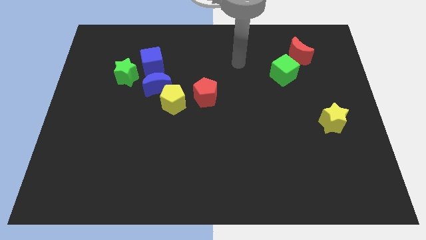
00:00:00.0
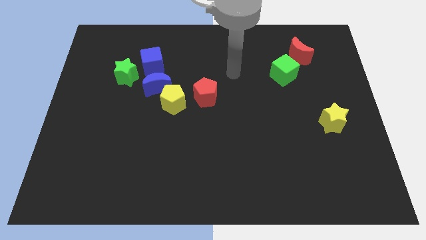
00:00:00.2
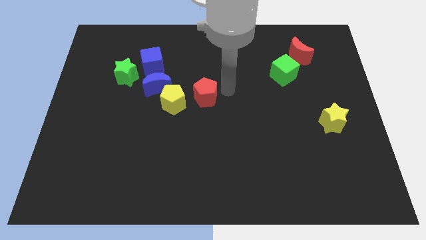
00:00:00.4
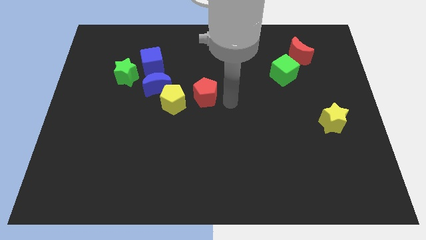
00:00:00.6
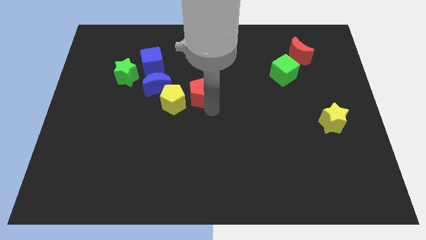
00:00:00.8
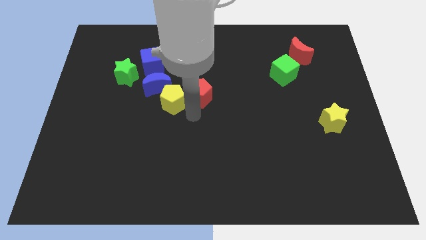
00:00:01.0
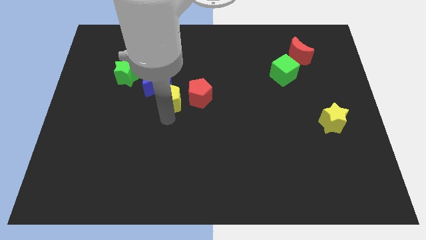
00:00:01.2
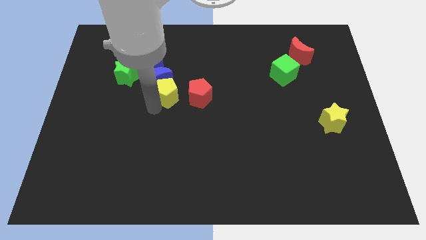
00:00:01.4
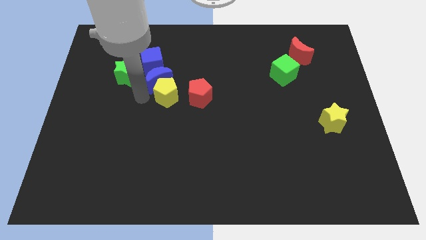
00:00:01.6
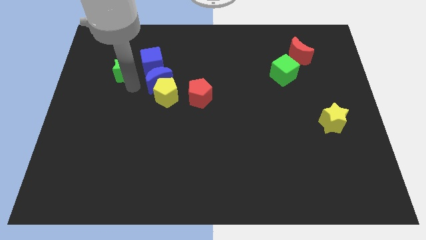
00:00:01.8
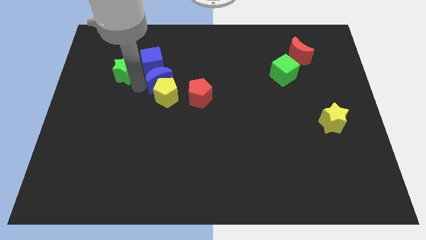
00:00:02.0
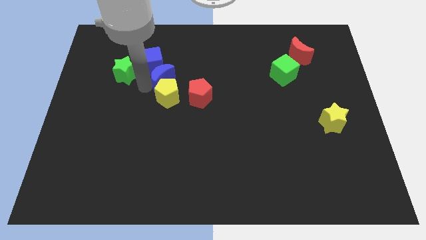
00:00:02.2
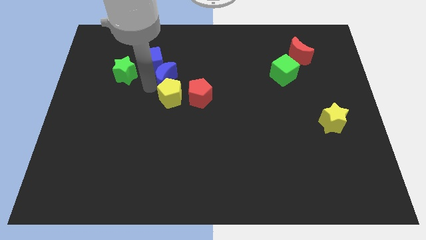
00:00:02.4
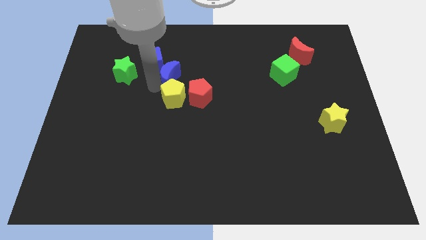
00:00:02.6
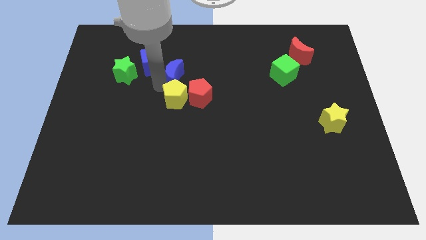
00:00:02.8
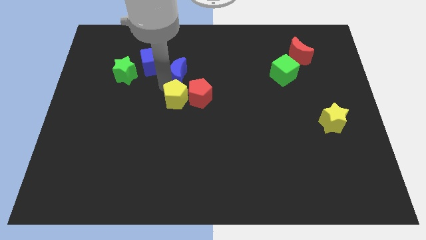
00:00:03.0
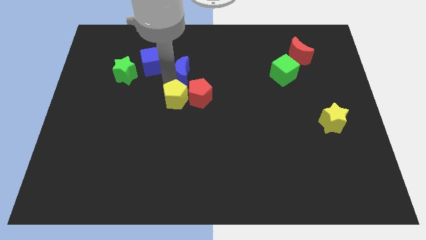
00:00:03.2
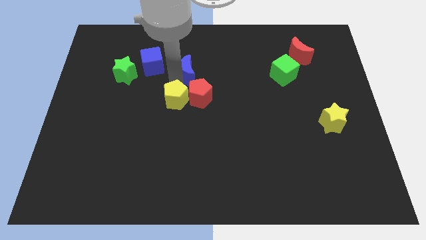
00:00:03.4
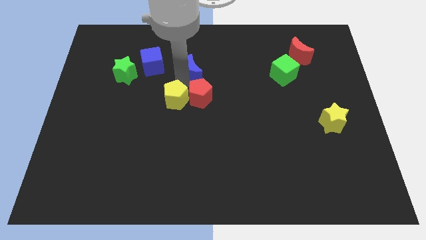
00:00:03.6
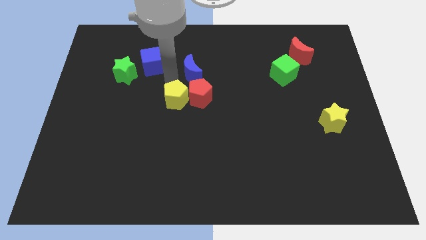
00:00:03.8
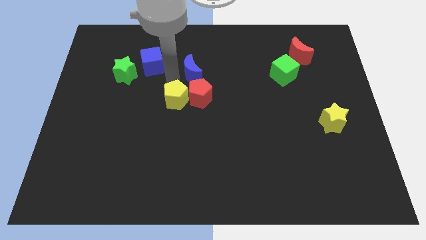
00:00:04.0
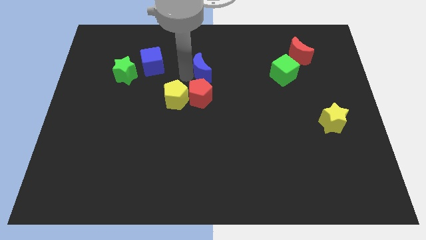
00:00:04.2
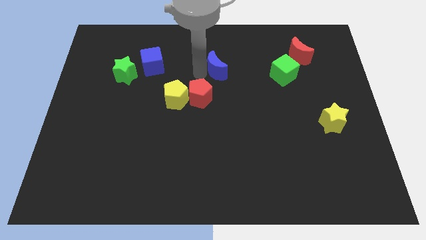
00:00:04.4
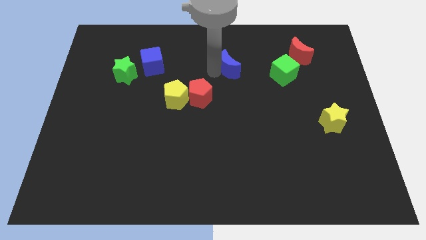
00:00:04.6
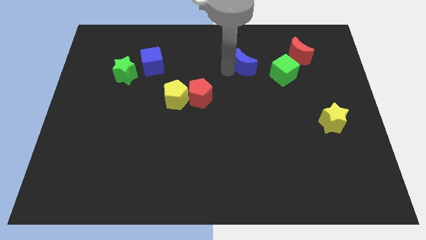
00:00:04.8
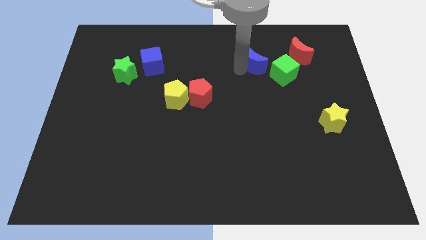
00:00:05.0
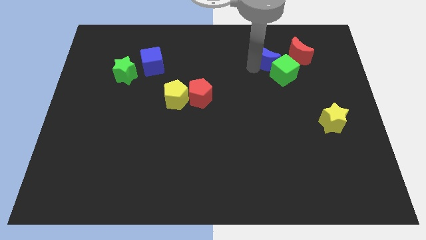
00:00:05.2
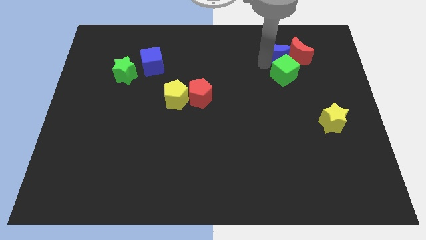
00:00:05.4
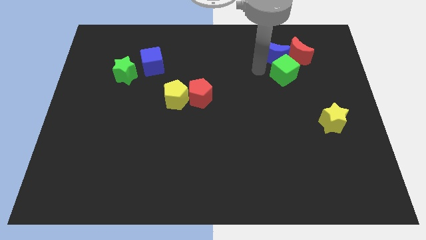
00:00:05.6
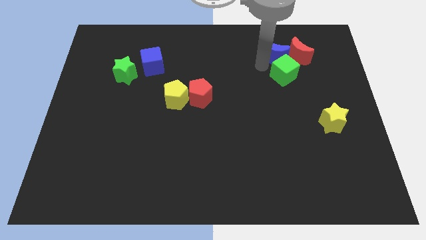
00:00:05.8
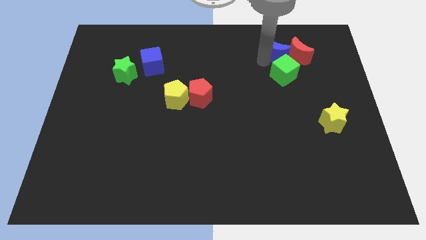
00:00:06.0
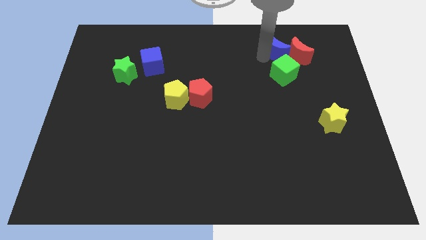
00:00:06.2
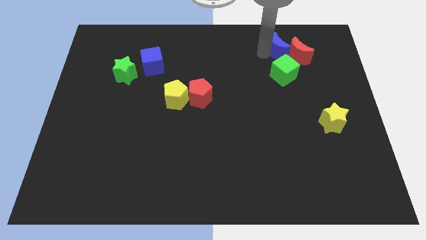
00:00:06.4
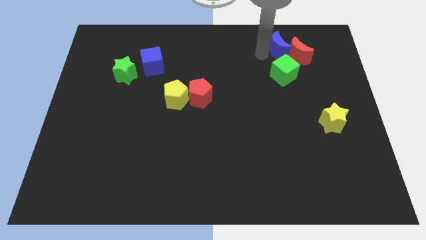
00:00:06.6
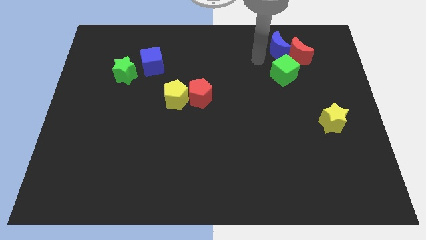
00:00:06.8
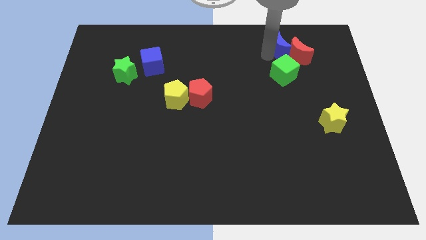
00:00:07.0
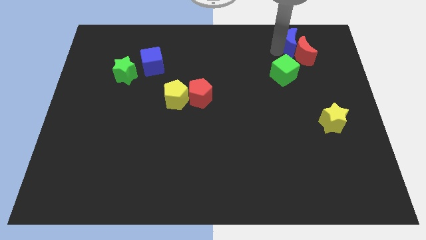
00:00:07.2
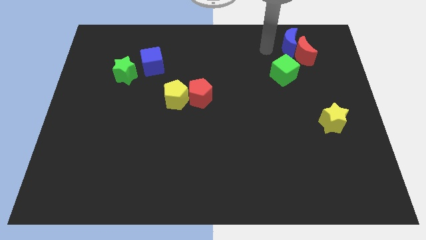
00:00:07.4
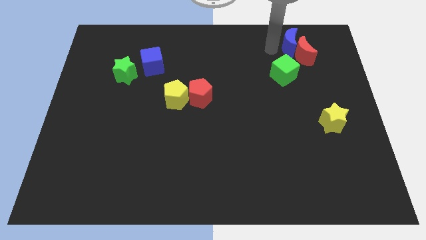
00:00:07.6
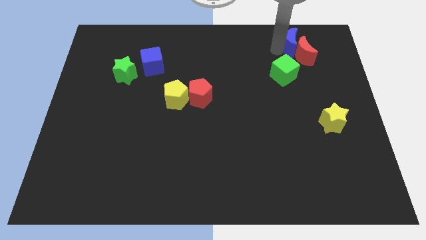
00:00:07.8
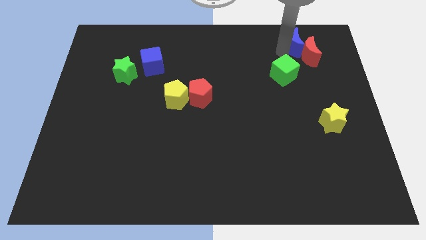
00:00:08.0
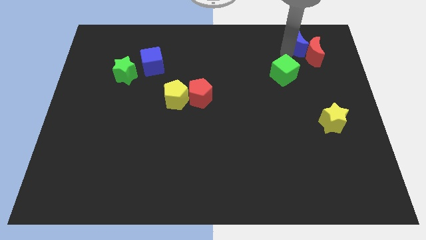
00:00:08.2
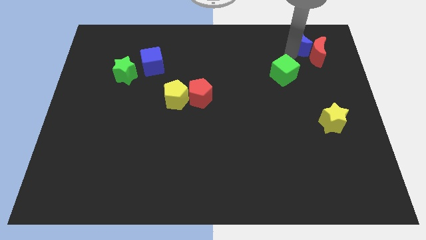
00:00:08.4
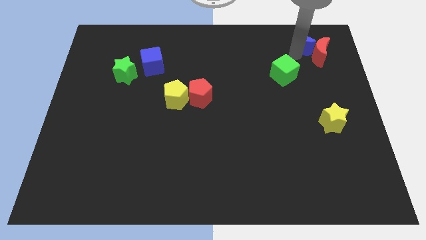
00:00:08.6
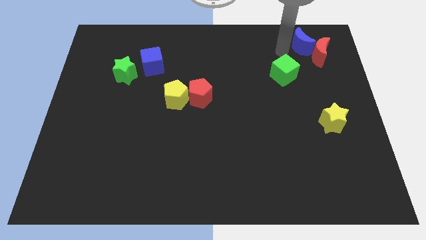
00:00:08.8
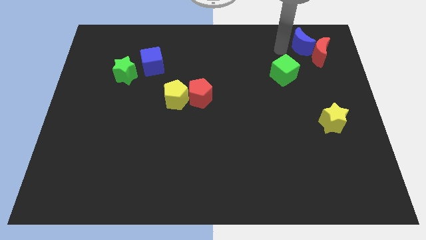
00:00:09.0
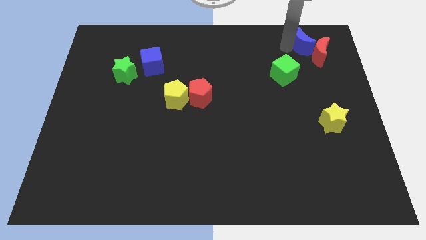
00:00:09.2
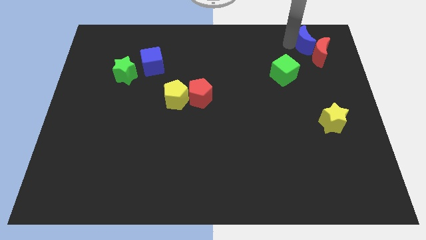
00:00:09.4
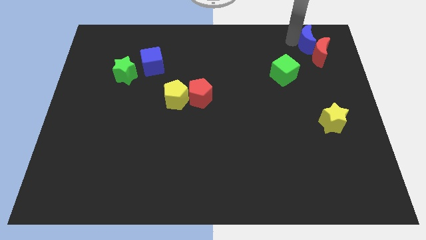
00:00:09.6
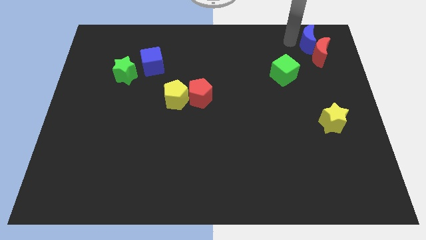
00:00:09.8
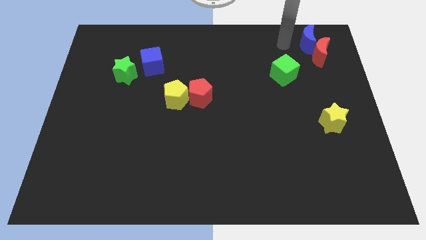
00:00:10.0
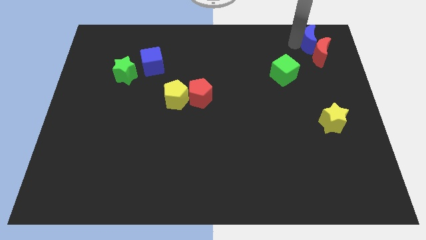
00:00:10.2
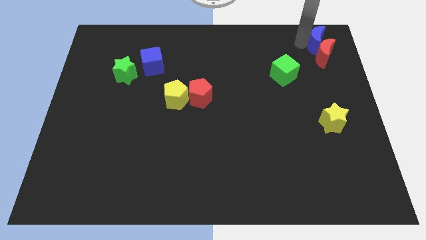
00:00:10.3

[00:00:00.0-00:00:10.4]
push the blue moon to the top right

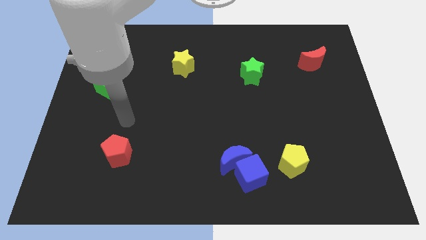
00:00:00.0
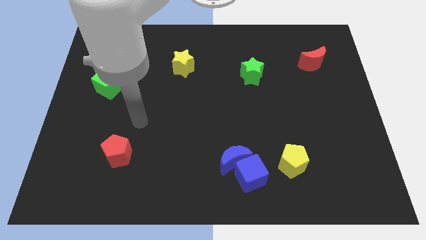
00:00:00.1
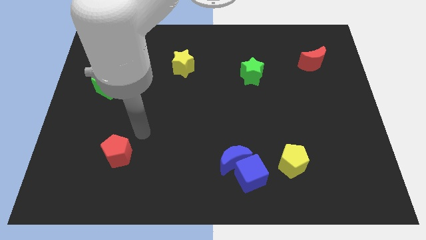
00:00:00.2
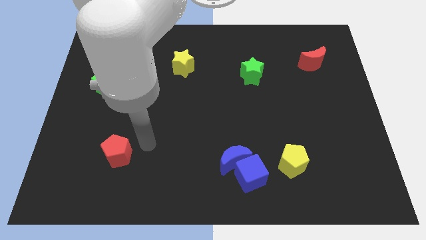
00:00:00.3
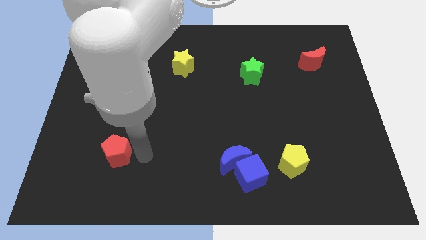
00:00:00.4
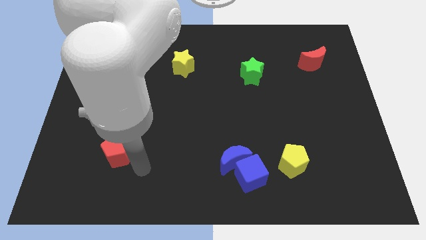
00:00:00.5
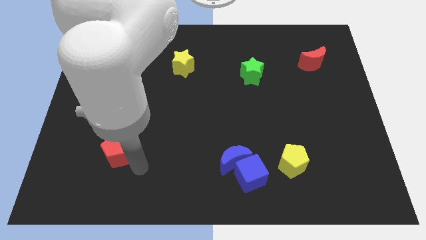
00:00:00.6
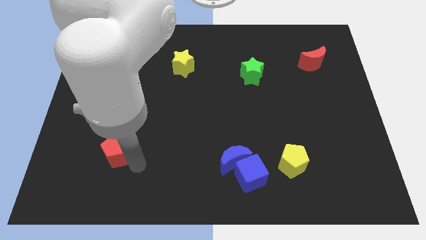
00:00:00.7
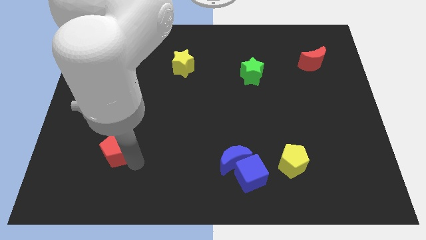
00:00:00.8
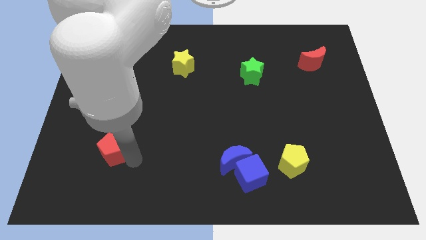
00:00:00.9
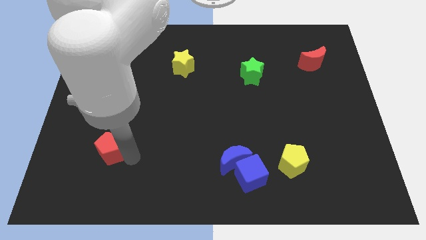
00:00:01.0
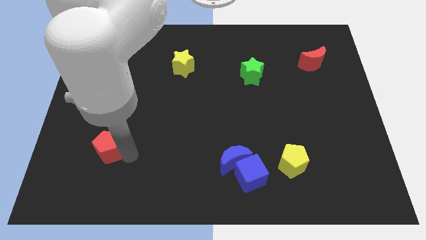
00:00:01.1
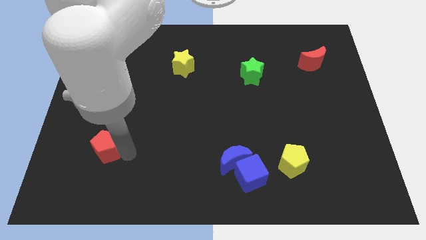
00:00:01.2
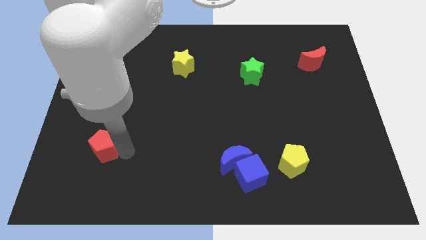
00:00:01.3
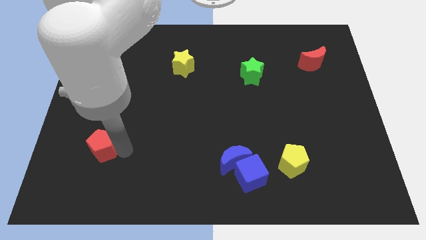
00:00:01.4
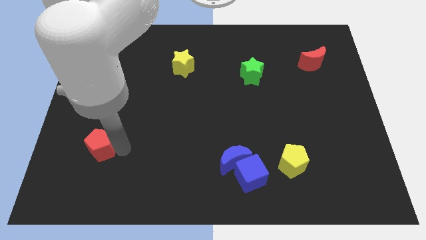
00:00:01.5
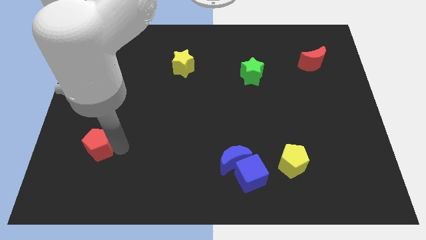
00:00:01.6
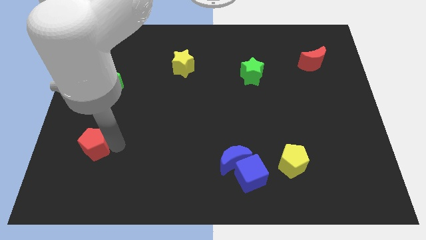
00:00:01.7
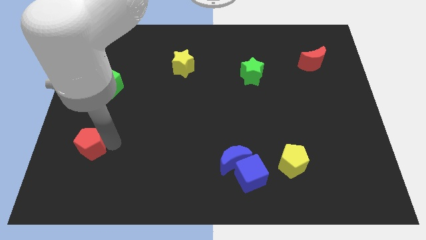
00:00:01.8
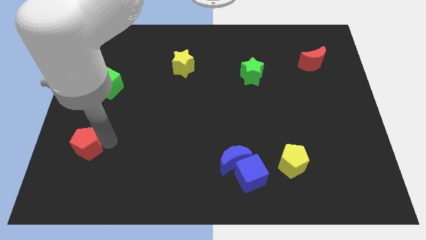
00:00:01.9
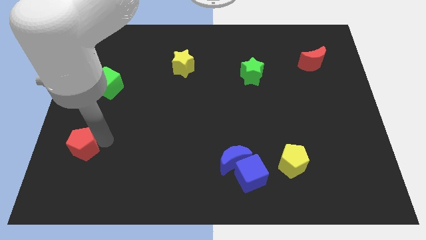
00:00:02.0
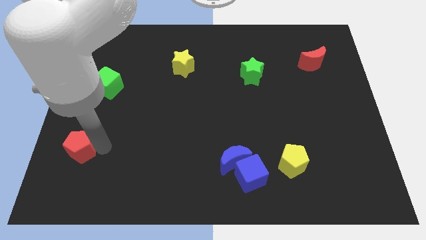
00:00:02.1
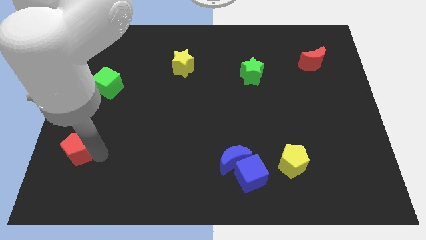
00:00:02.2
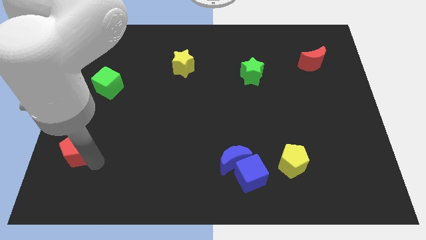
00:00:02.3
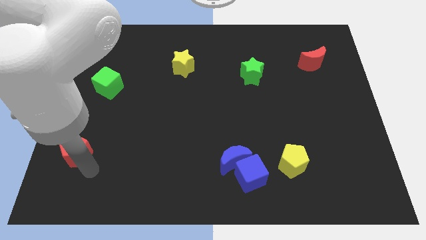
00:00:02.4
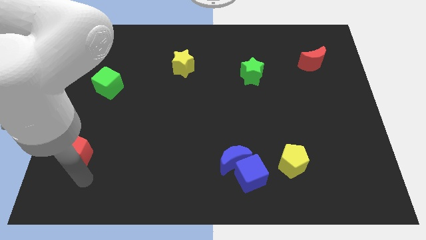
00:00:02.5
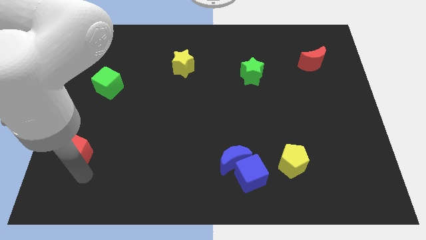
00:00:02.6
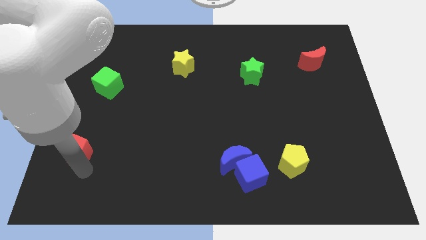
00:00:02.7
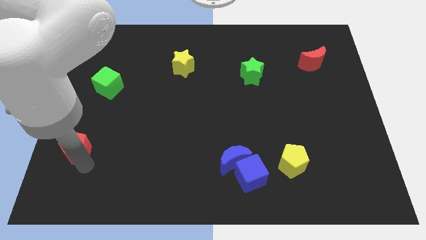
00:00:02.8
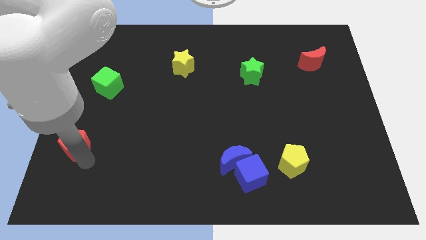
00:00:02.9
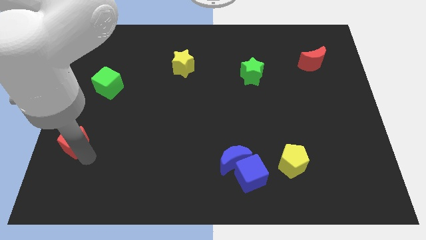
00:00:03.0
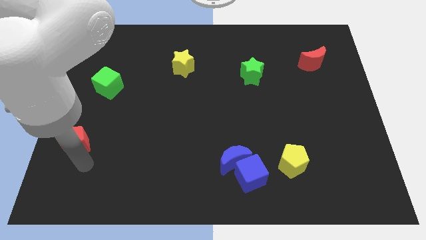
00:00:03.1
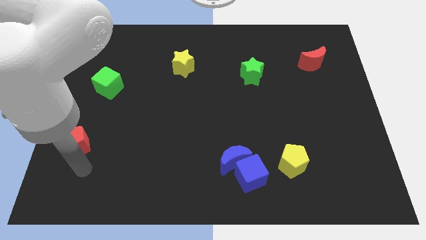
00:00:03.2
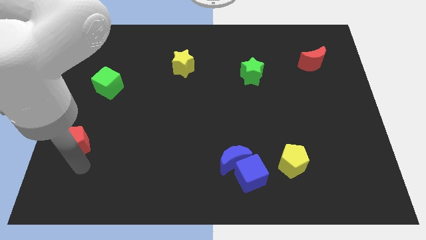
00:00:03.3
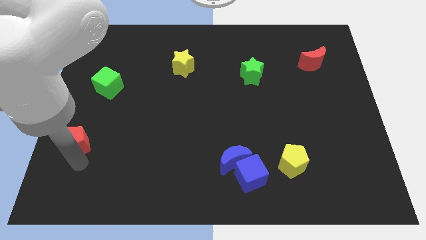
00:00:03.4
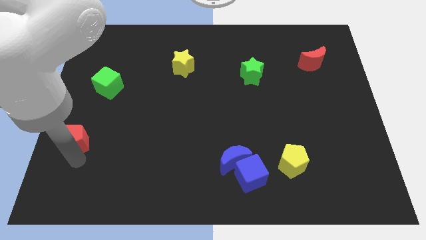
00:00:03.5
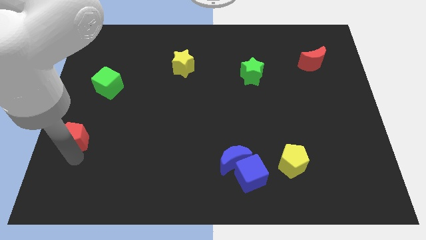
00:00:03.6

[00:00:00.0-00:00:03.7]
move the red pentagon to the center left
